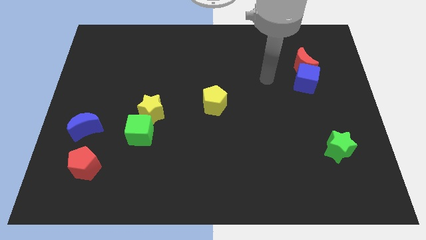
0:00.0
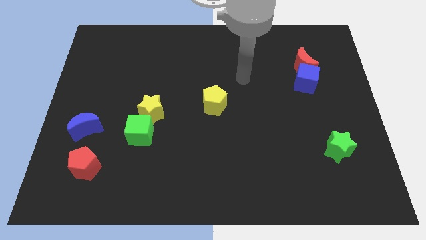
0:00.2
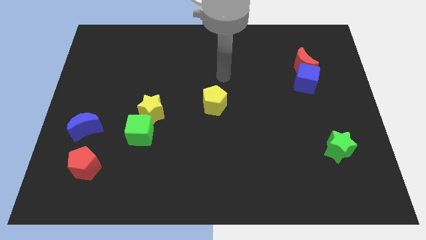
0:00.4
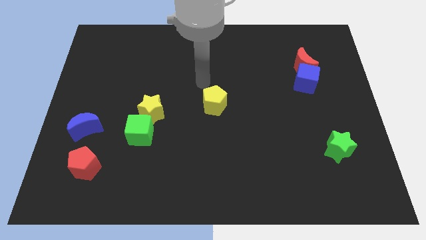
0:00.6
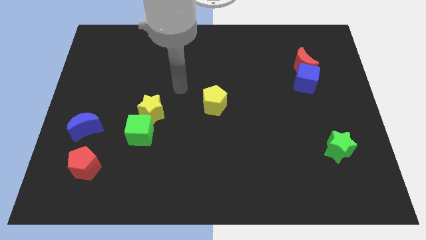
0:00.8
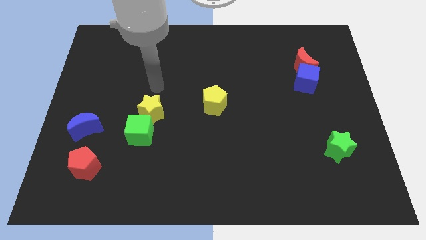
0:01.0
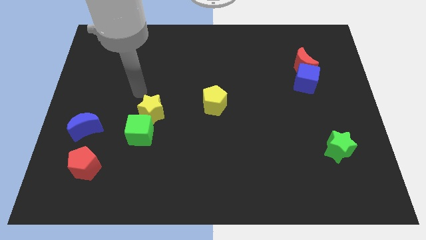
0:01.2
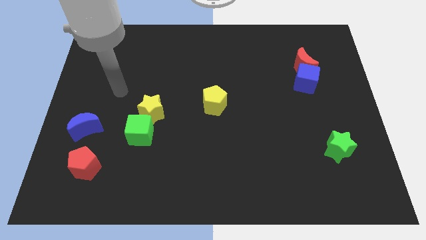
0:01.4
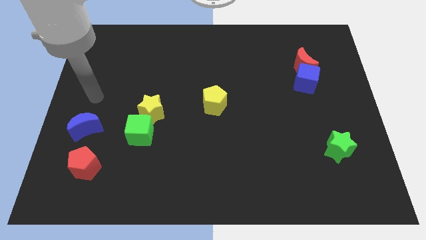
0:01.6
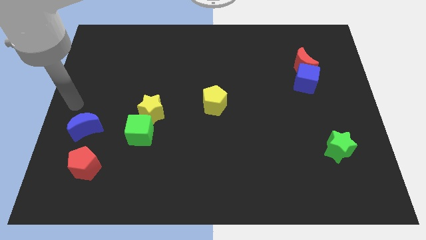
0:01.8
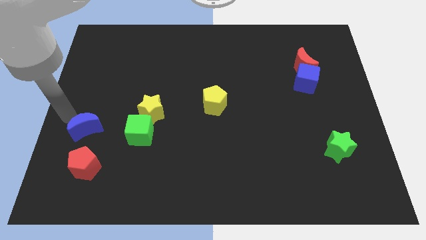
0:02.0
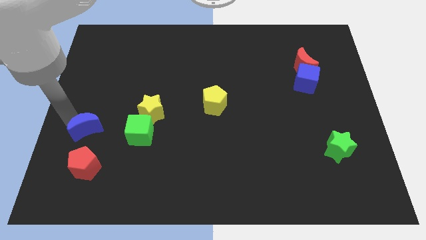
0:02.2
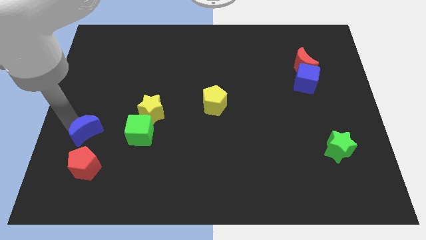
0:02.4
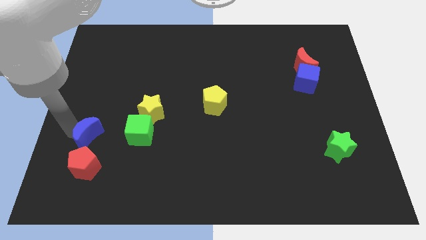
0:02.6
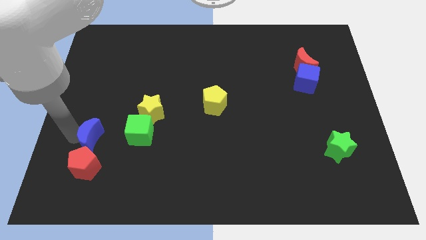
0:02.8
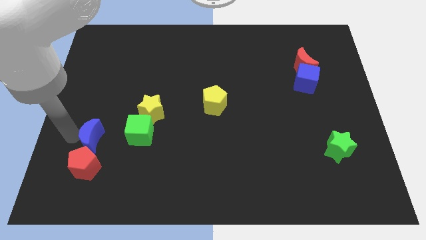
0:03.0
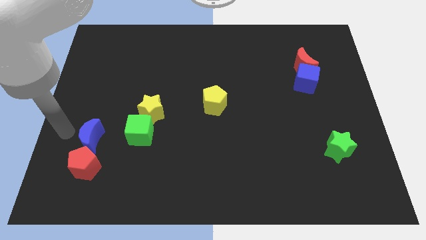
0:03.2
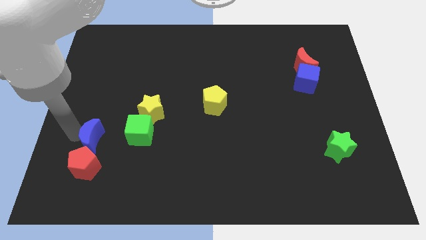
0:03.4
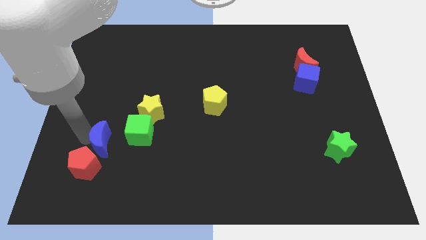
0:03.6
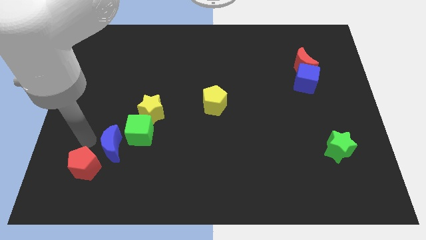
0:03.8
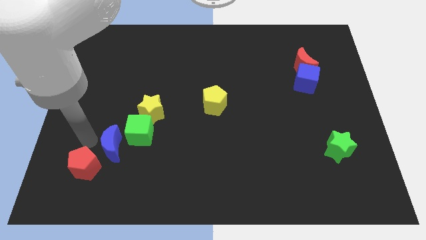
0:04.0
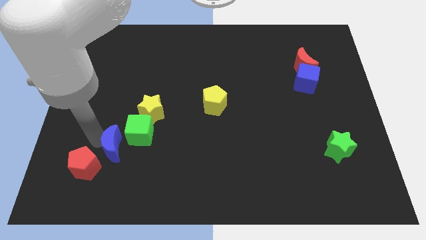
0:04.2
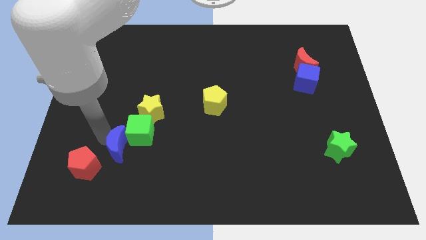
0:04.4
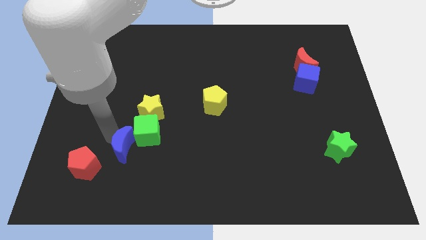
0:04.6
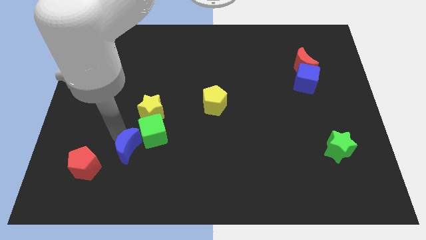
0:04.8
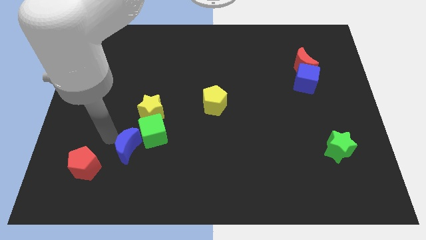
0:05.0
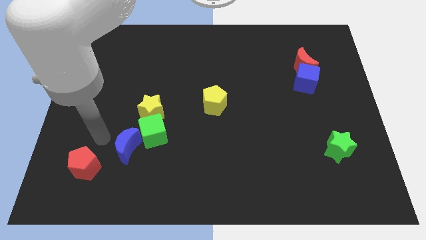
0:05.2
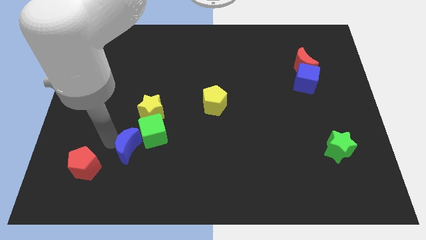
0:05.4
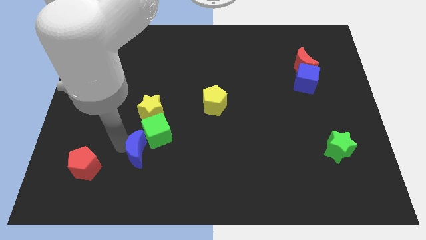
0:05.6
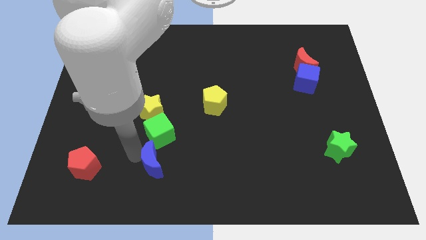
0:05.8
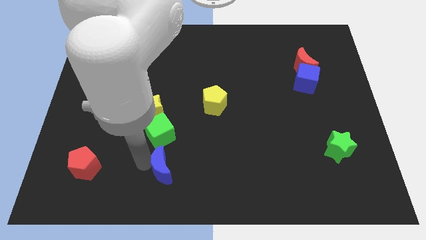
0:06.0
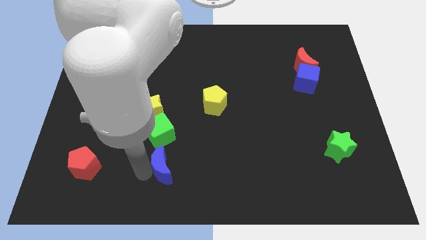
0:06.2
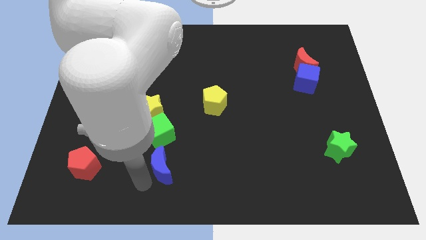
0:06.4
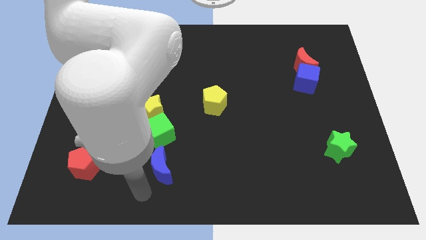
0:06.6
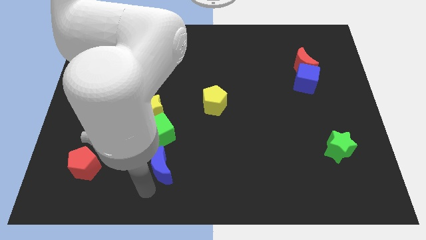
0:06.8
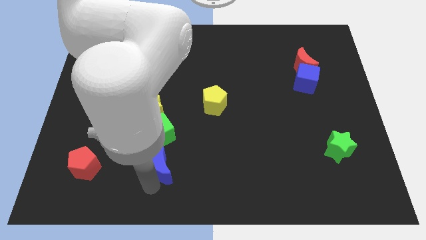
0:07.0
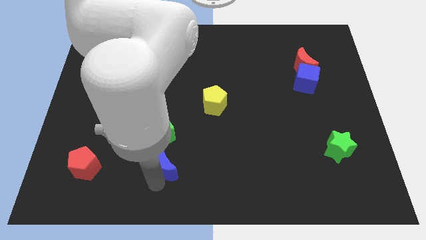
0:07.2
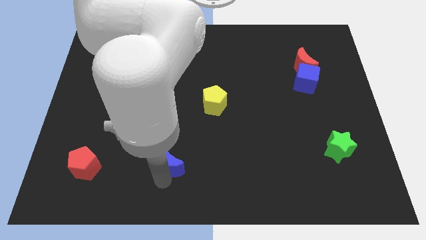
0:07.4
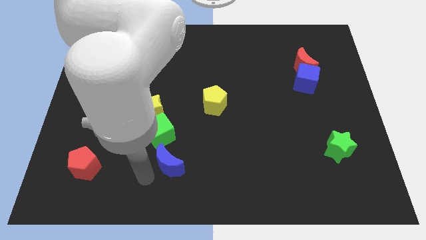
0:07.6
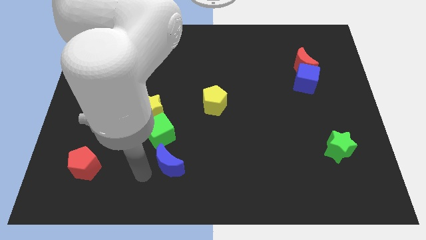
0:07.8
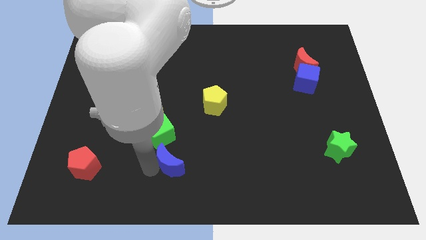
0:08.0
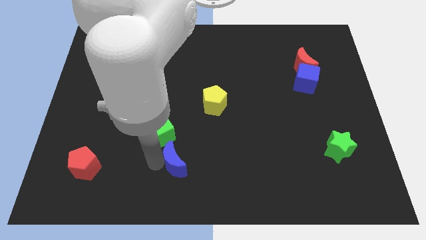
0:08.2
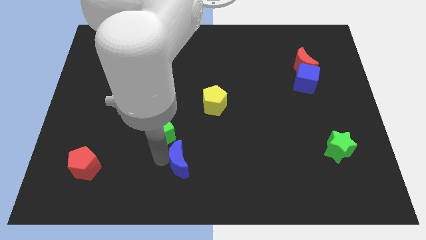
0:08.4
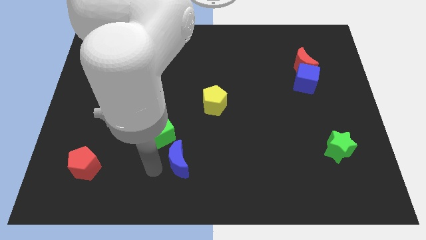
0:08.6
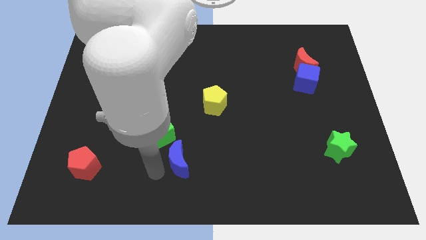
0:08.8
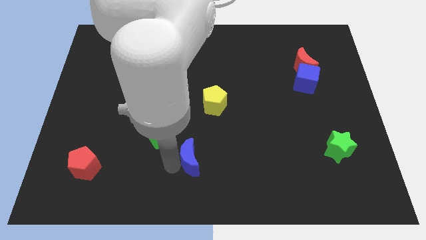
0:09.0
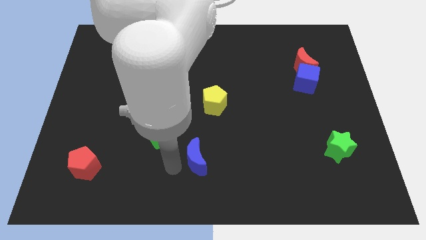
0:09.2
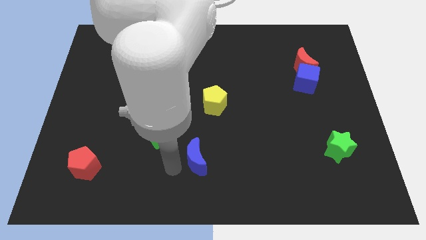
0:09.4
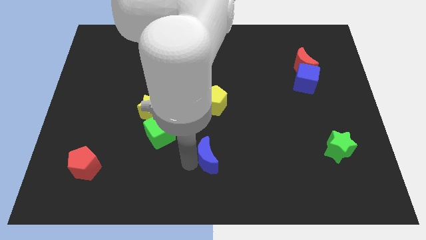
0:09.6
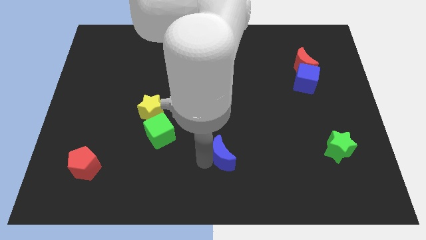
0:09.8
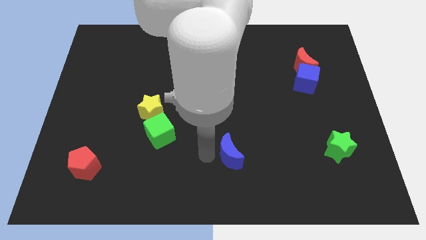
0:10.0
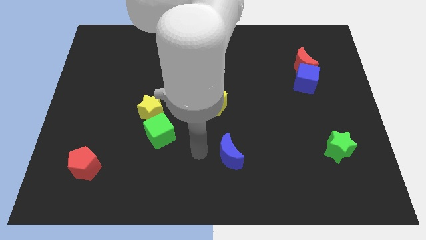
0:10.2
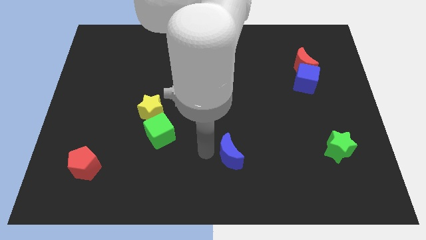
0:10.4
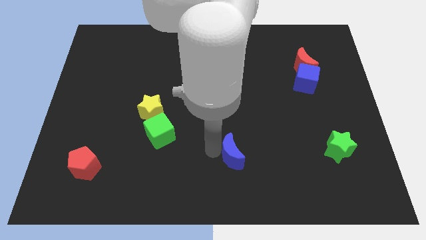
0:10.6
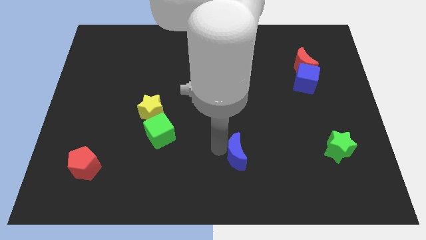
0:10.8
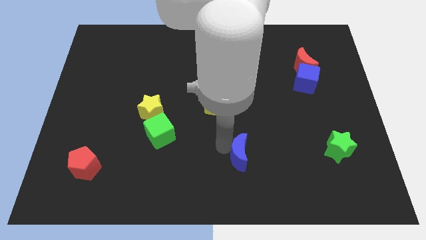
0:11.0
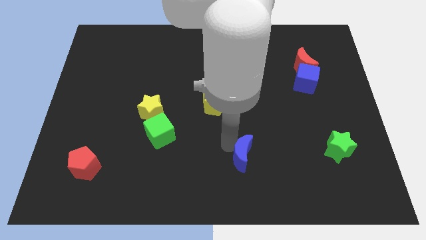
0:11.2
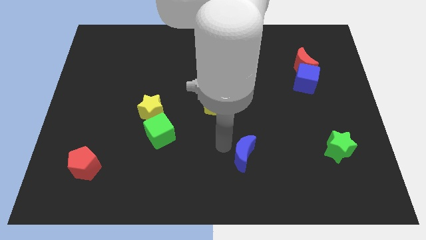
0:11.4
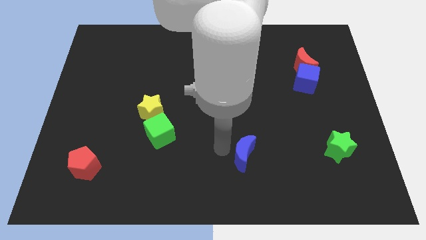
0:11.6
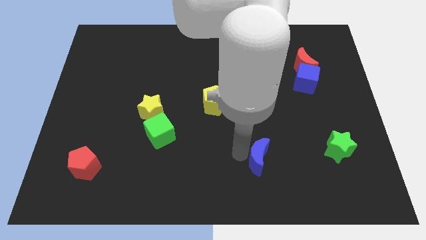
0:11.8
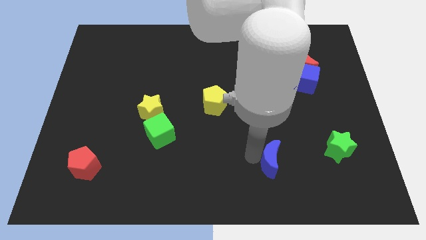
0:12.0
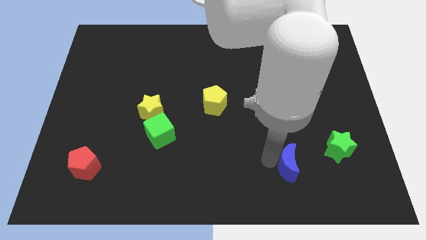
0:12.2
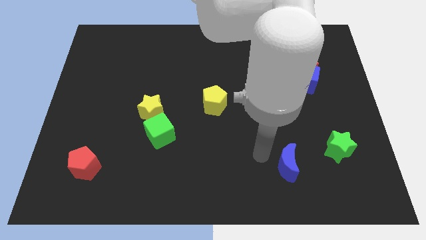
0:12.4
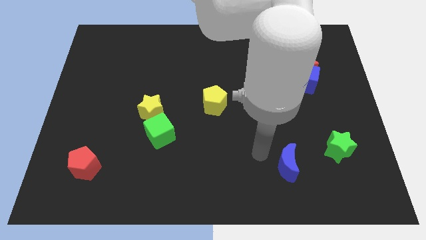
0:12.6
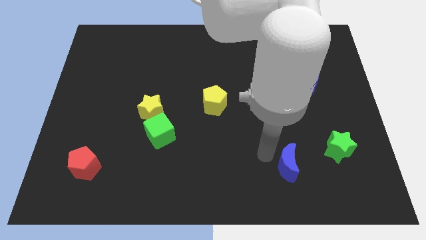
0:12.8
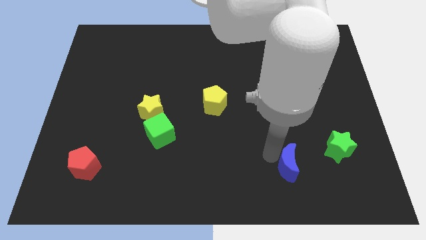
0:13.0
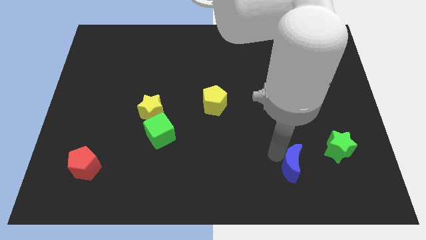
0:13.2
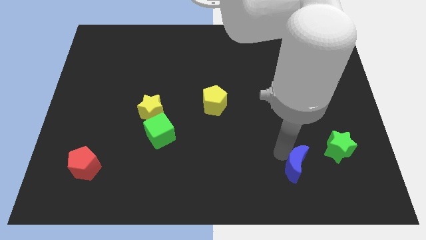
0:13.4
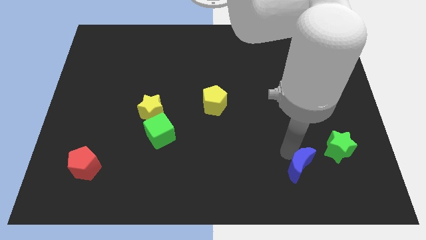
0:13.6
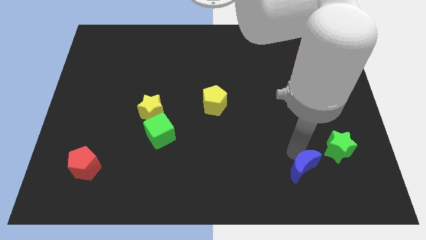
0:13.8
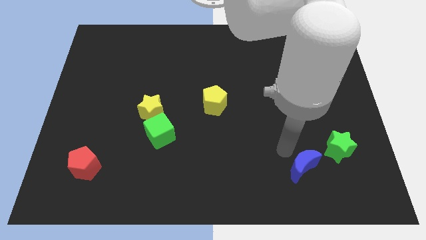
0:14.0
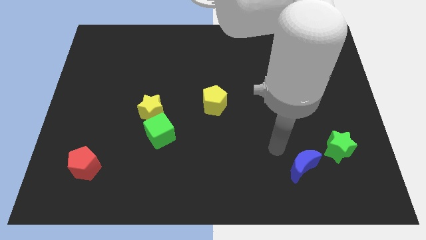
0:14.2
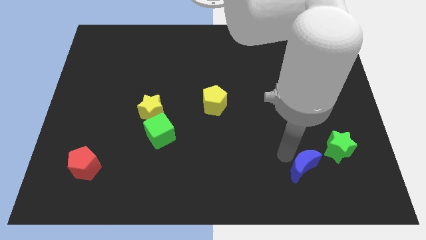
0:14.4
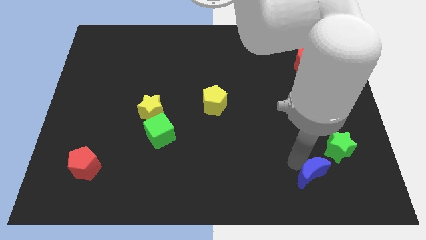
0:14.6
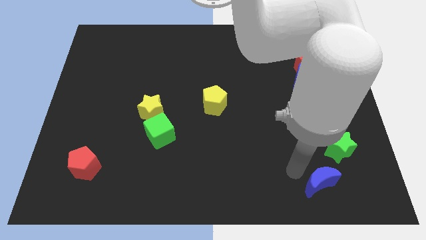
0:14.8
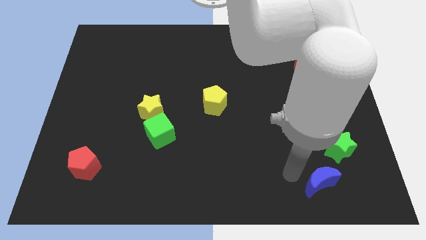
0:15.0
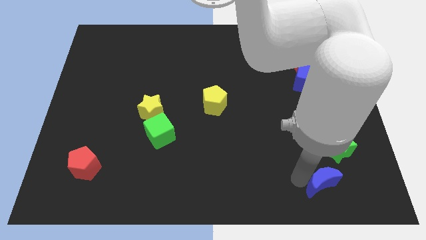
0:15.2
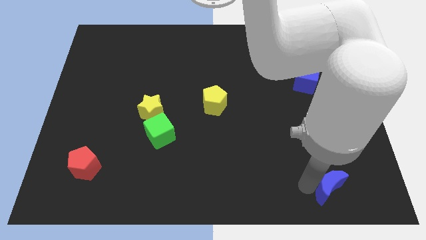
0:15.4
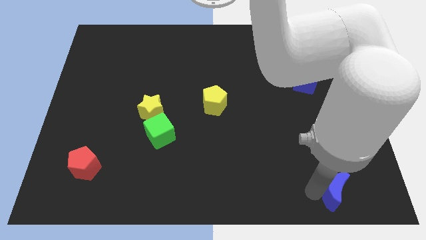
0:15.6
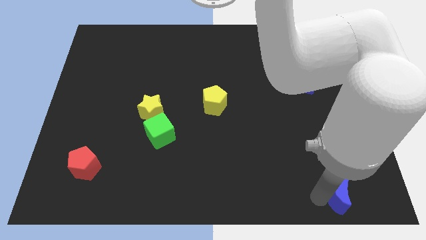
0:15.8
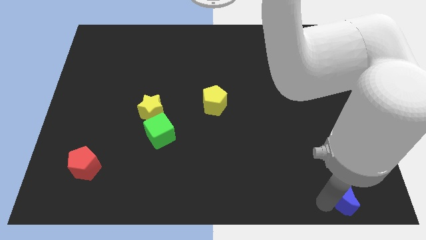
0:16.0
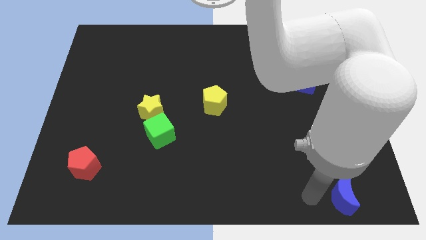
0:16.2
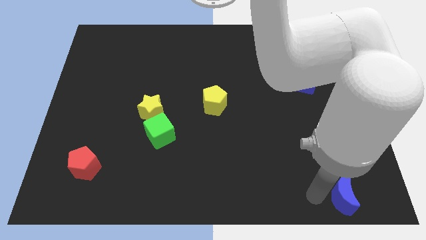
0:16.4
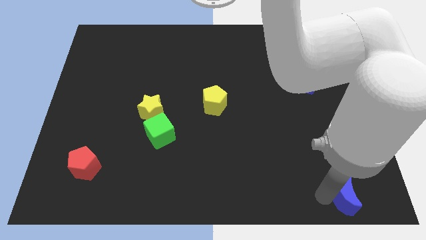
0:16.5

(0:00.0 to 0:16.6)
push the blue moon to the bottom right corner
